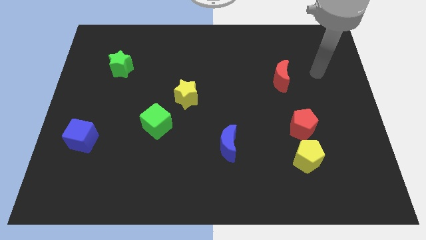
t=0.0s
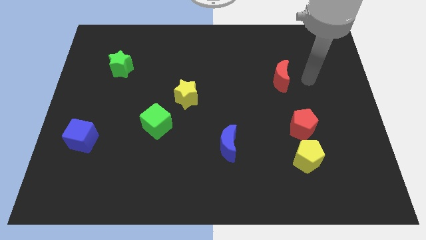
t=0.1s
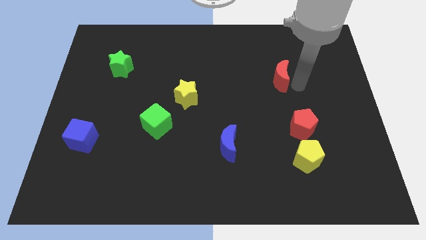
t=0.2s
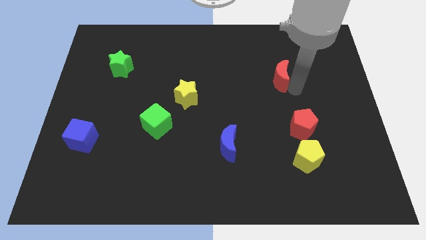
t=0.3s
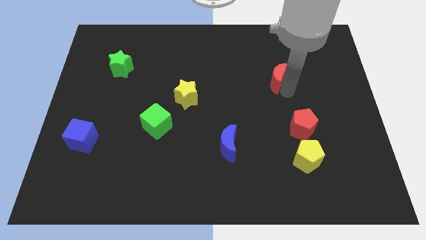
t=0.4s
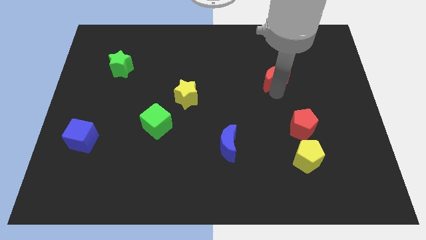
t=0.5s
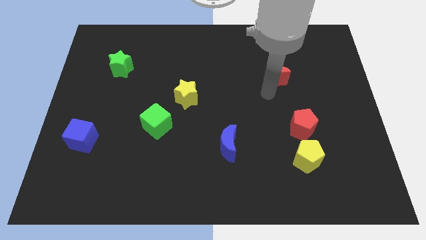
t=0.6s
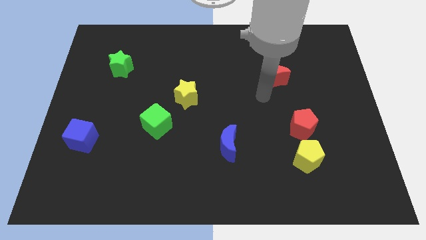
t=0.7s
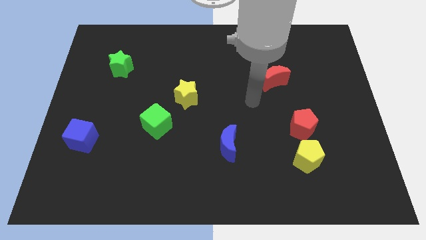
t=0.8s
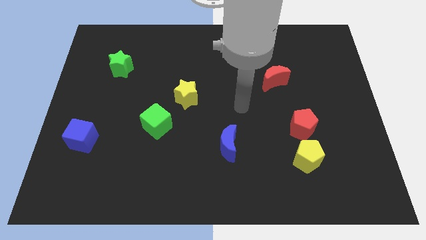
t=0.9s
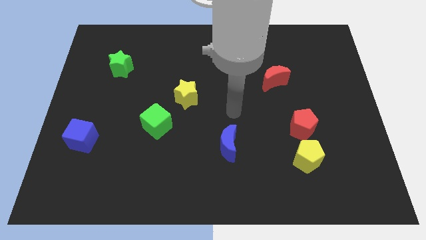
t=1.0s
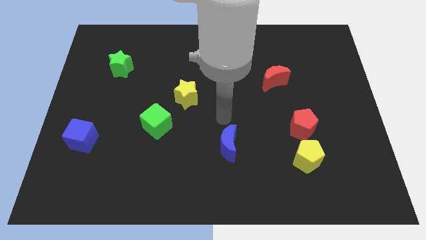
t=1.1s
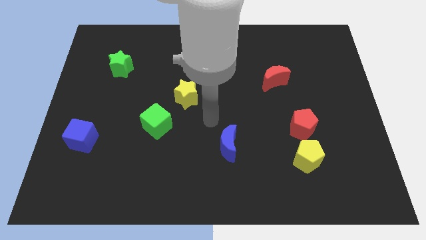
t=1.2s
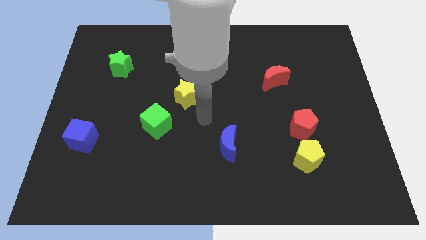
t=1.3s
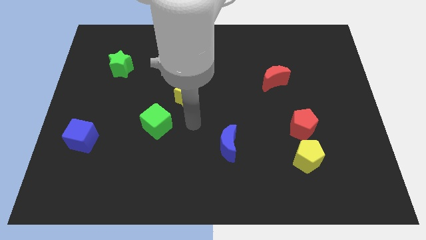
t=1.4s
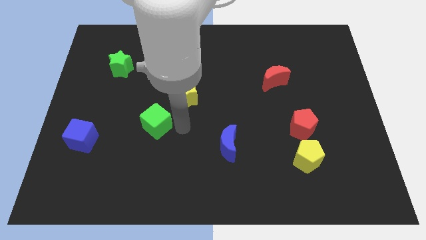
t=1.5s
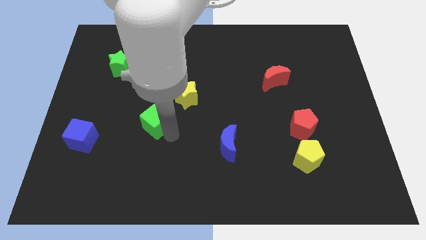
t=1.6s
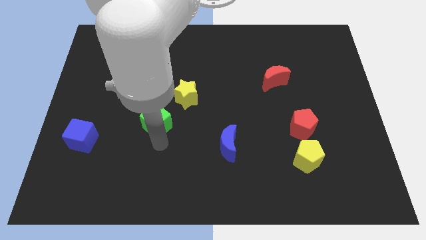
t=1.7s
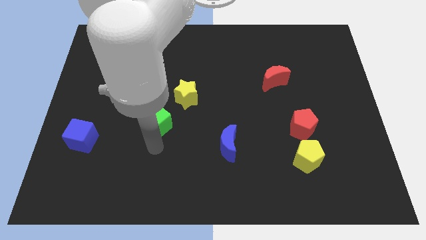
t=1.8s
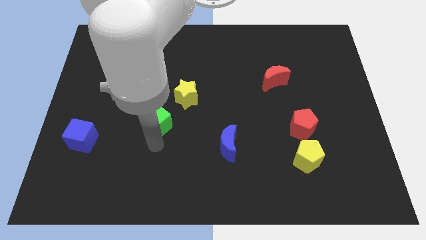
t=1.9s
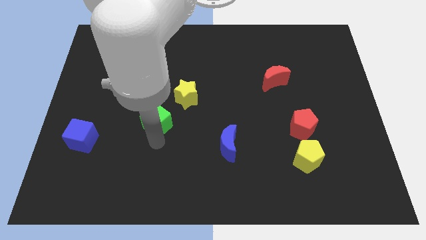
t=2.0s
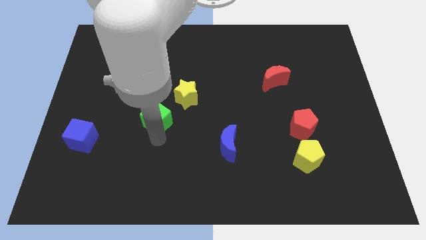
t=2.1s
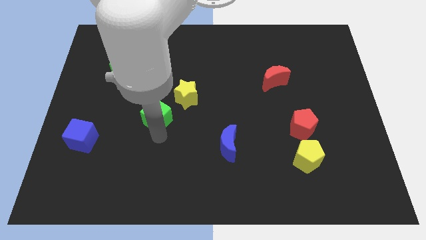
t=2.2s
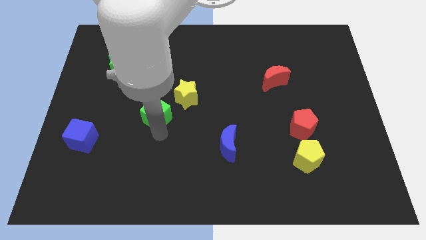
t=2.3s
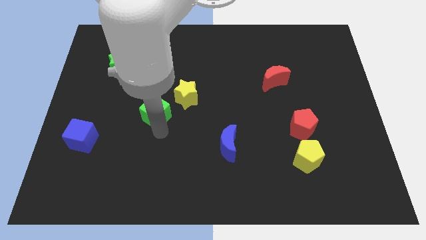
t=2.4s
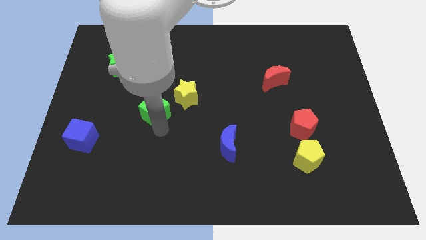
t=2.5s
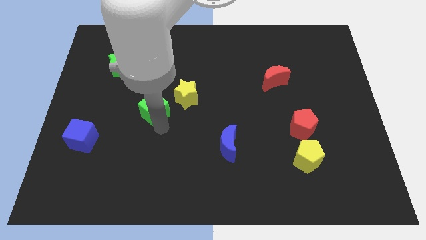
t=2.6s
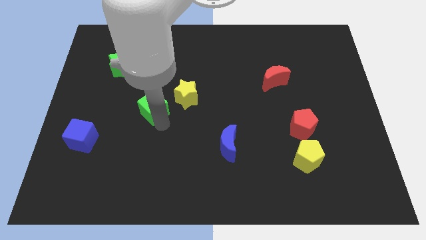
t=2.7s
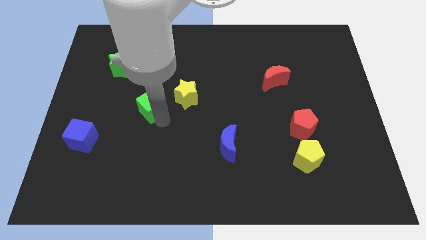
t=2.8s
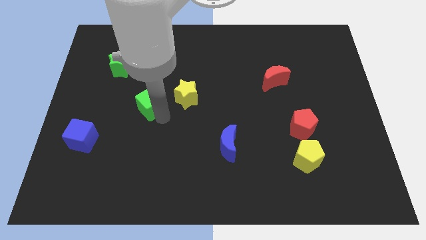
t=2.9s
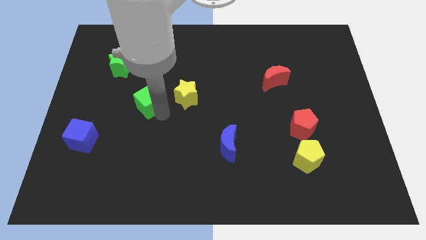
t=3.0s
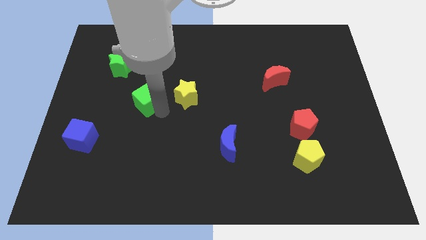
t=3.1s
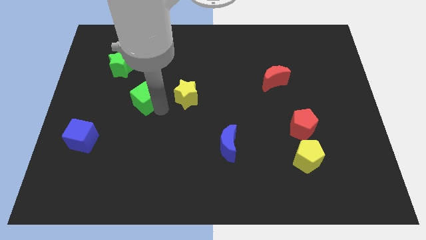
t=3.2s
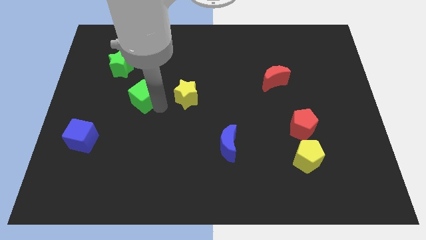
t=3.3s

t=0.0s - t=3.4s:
slide the green cube a little bit upwards

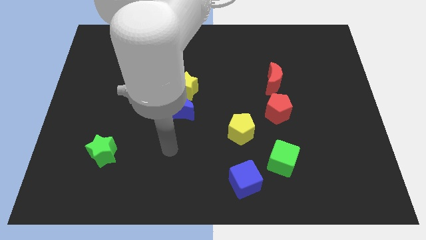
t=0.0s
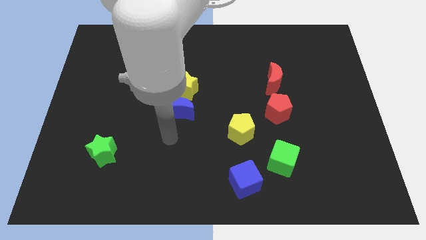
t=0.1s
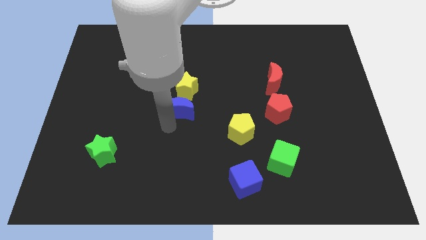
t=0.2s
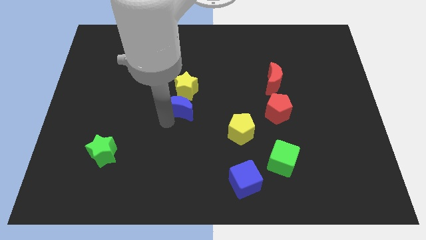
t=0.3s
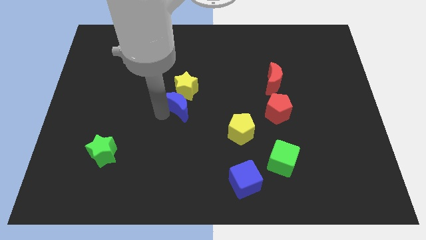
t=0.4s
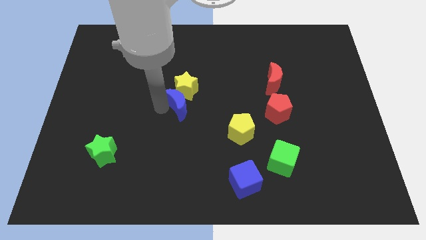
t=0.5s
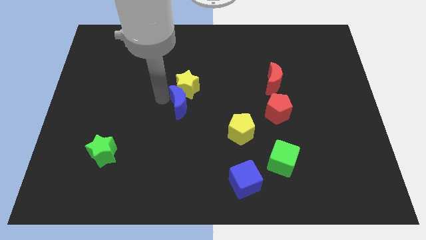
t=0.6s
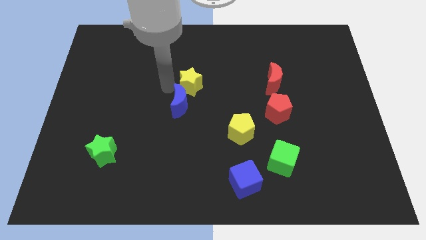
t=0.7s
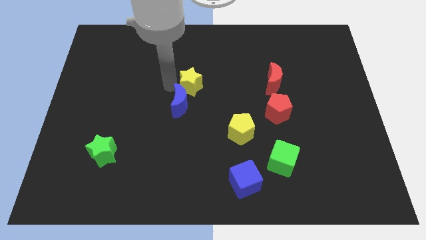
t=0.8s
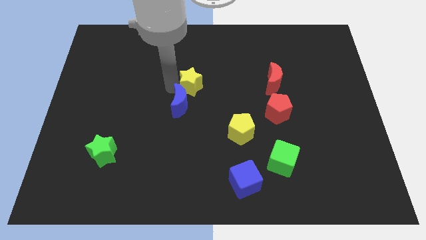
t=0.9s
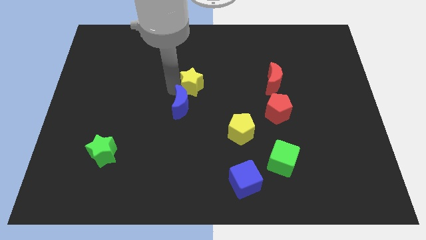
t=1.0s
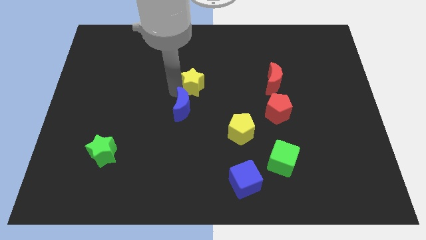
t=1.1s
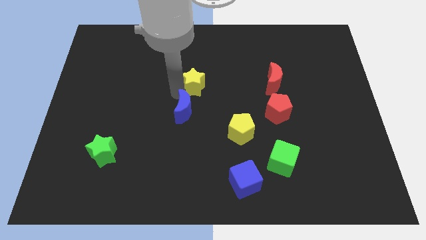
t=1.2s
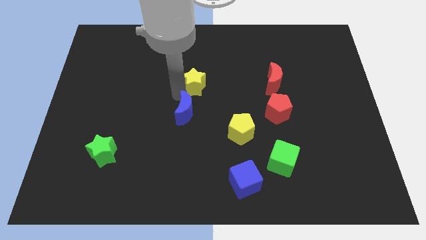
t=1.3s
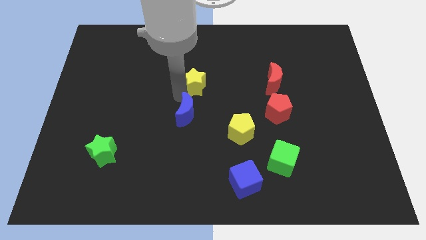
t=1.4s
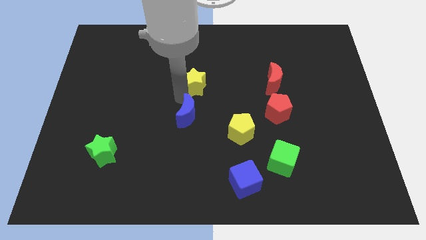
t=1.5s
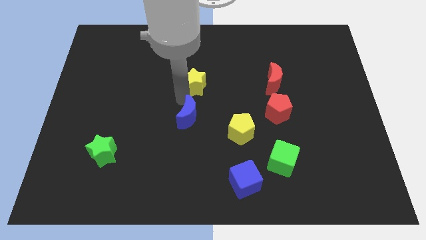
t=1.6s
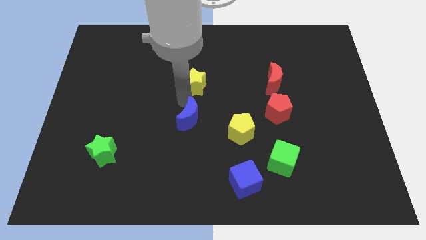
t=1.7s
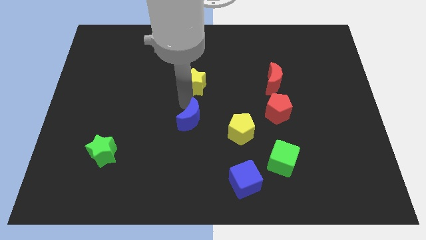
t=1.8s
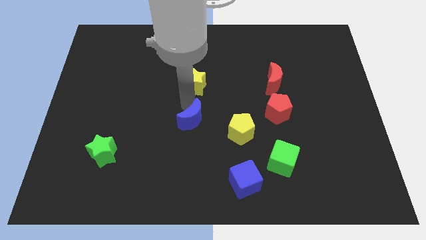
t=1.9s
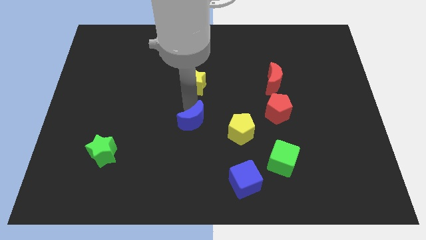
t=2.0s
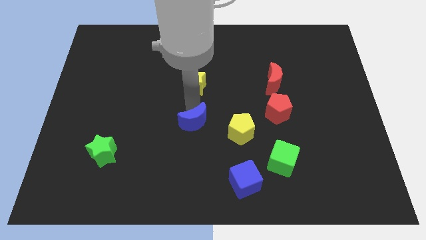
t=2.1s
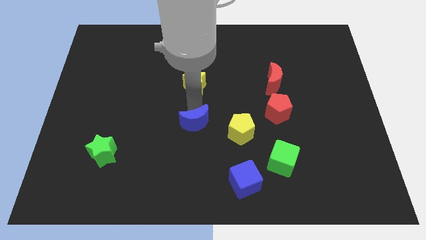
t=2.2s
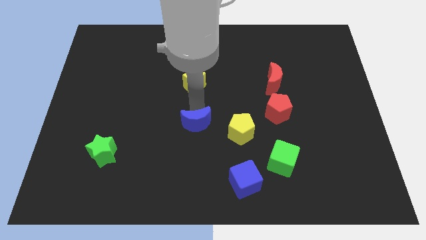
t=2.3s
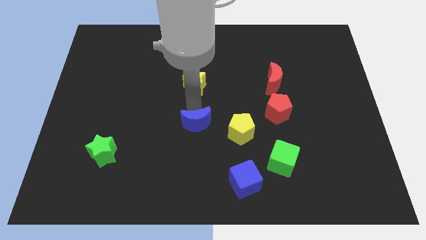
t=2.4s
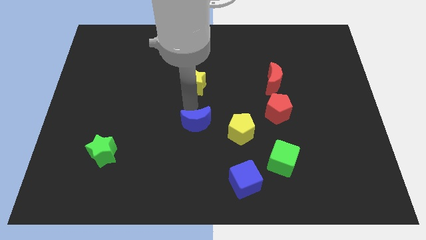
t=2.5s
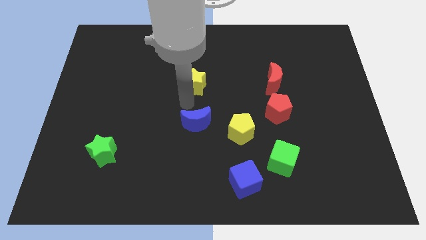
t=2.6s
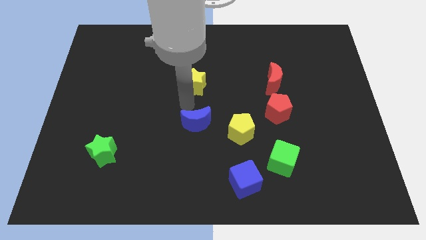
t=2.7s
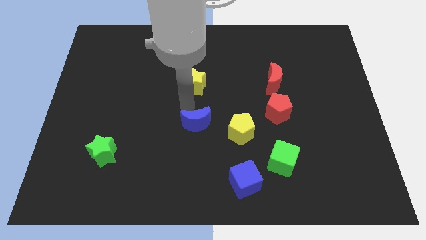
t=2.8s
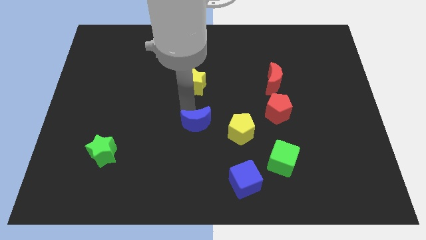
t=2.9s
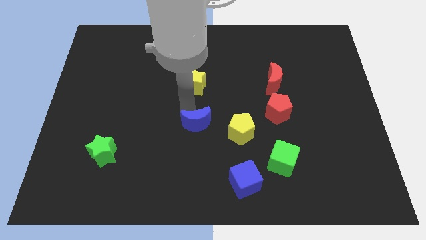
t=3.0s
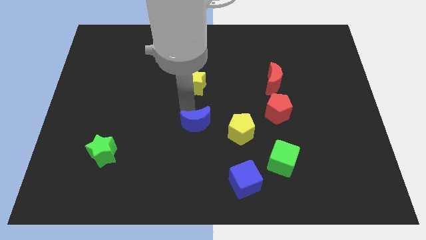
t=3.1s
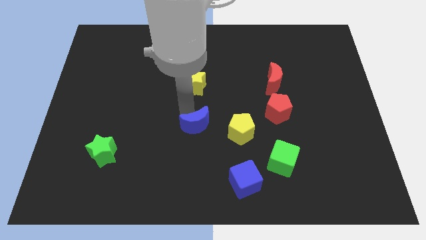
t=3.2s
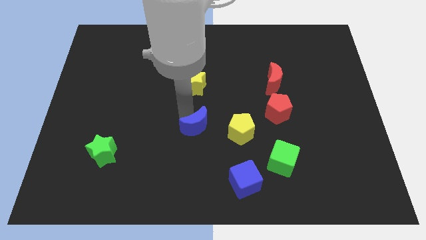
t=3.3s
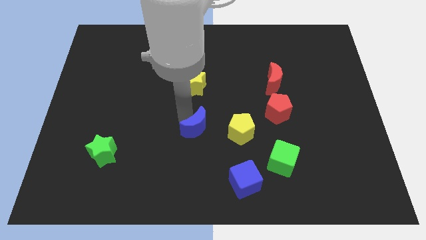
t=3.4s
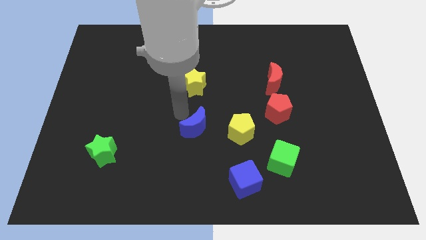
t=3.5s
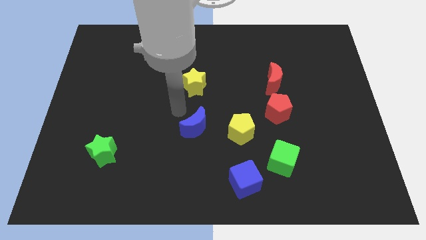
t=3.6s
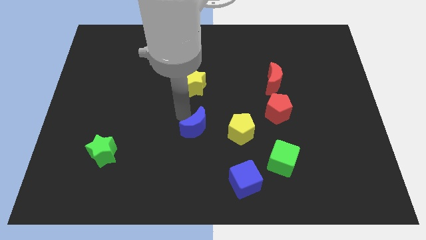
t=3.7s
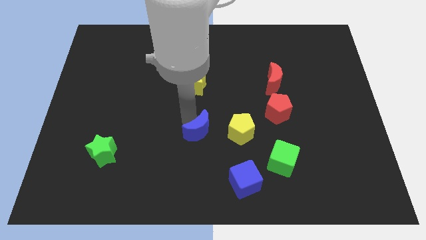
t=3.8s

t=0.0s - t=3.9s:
slide the blue moon down and to the right diagonally slightly

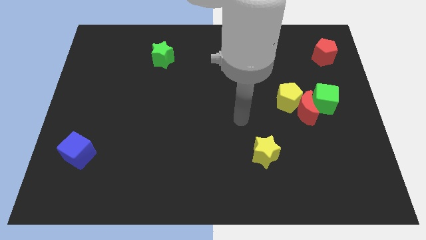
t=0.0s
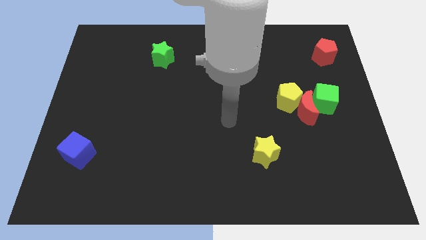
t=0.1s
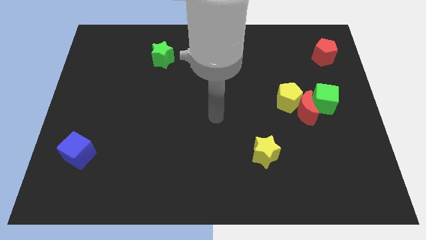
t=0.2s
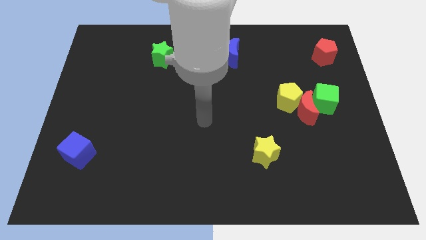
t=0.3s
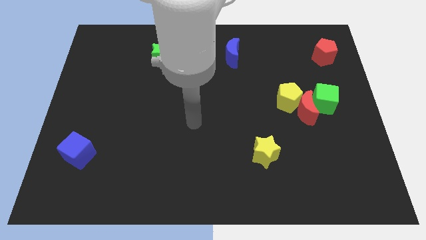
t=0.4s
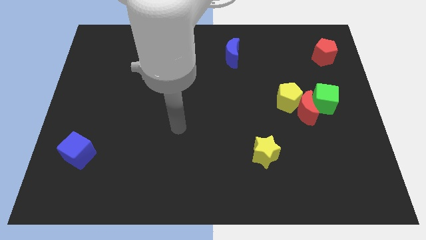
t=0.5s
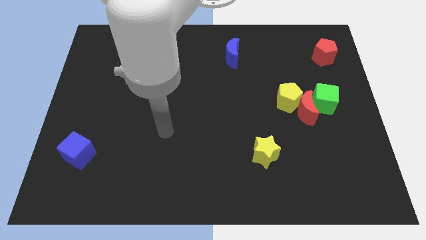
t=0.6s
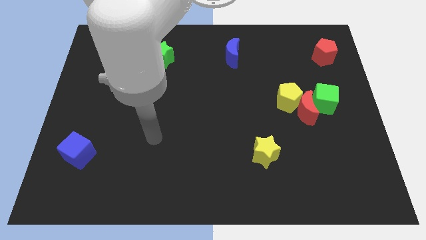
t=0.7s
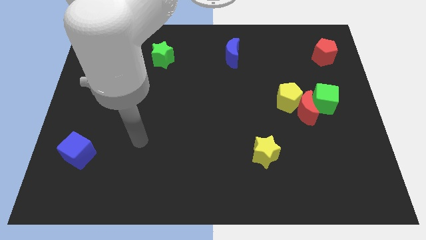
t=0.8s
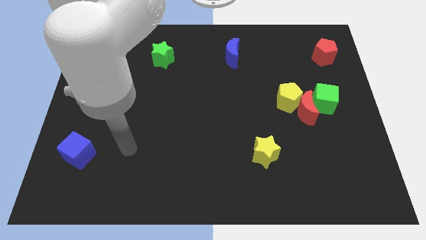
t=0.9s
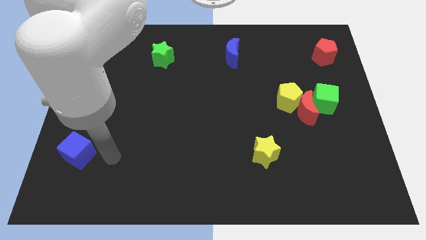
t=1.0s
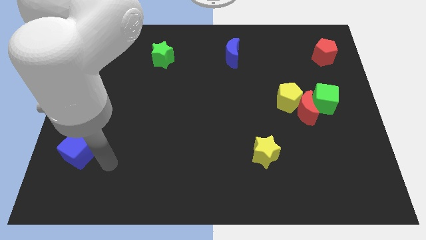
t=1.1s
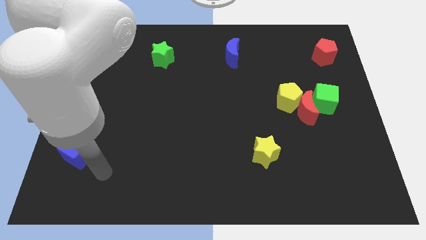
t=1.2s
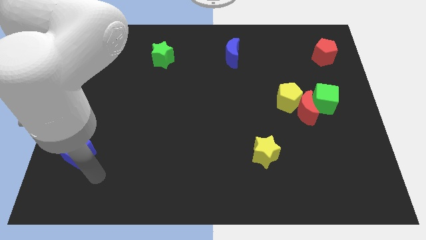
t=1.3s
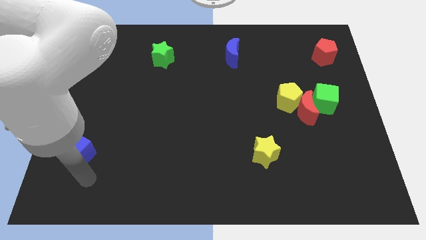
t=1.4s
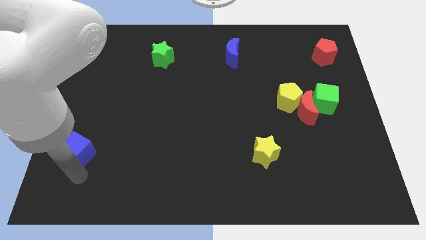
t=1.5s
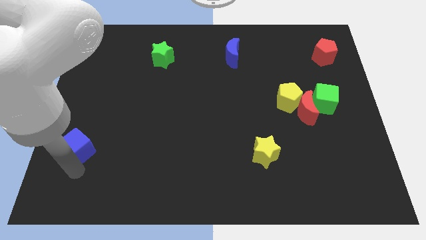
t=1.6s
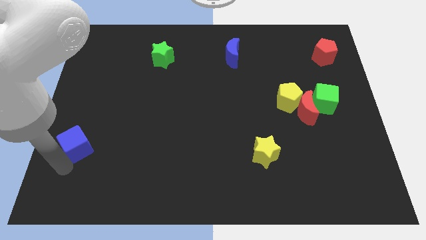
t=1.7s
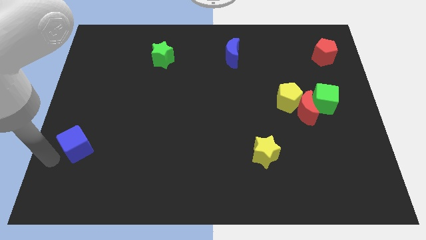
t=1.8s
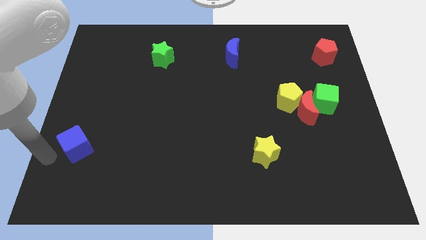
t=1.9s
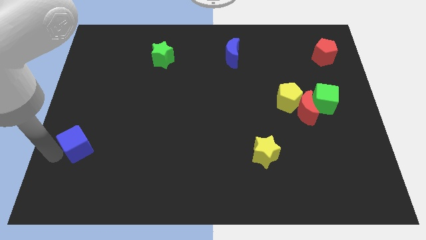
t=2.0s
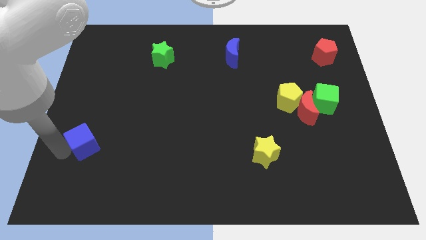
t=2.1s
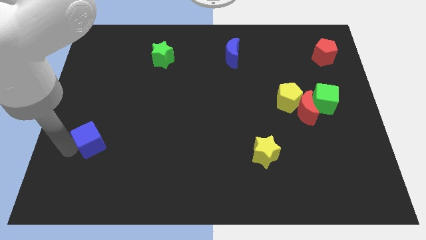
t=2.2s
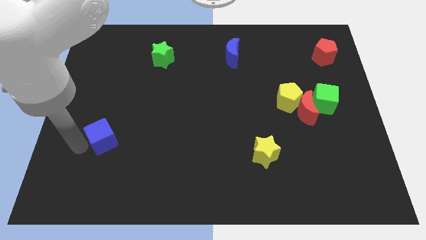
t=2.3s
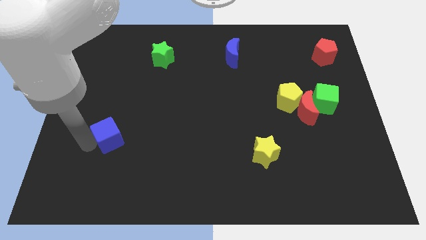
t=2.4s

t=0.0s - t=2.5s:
slightly push the blue cube upwards and right
